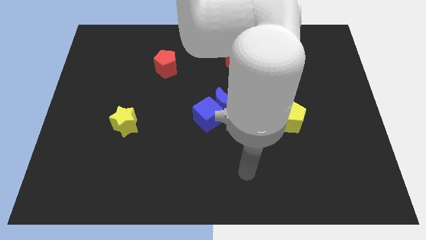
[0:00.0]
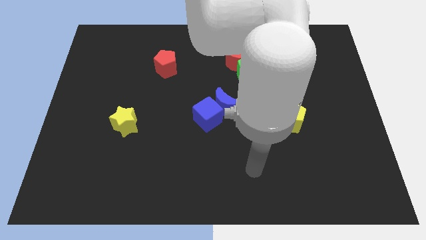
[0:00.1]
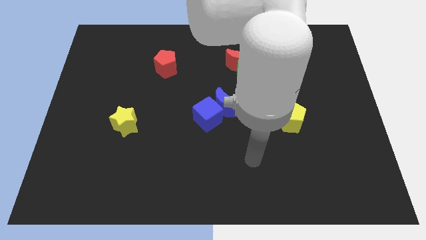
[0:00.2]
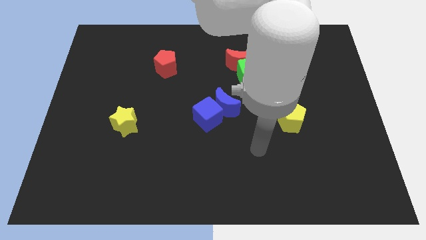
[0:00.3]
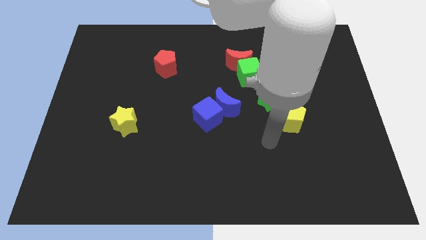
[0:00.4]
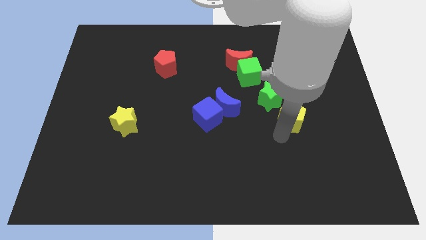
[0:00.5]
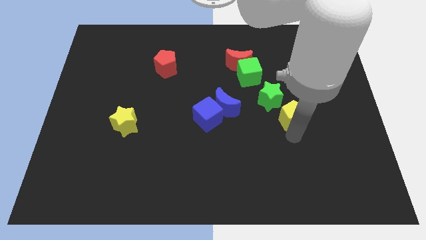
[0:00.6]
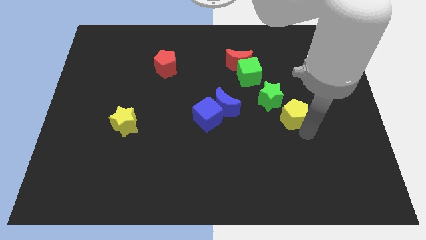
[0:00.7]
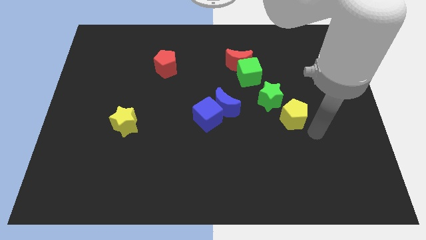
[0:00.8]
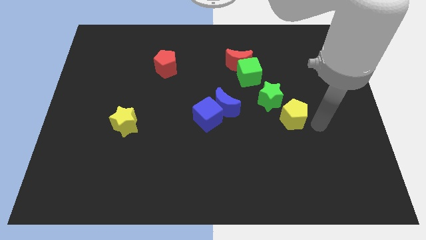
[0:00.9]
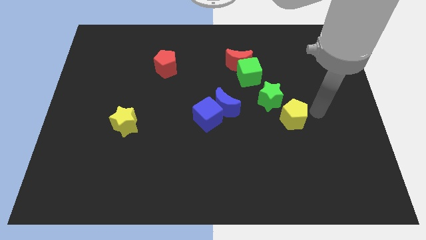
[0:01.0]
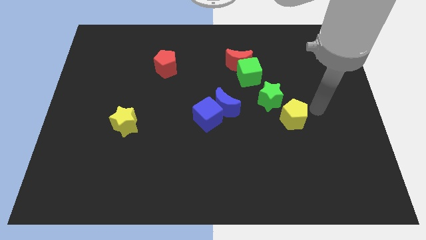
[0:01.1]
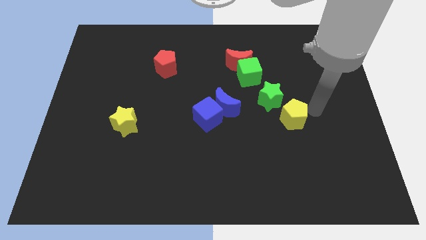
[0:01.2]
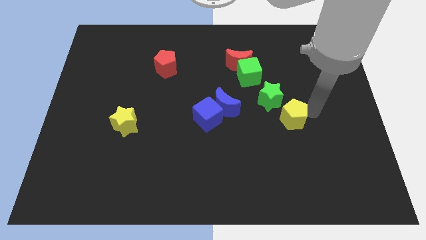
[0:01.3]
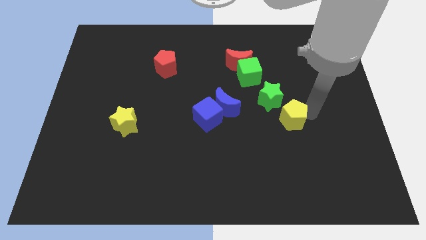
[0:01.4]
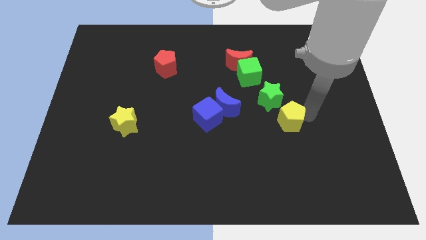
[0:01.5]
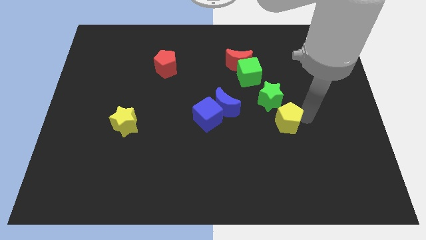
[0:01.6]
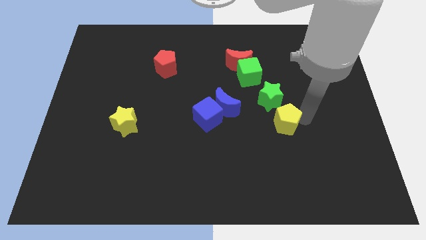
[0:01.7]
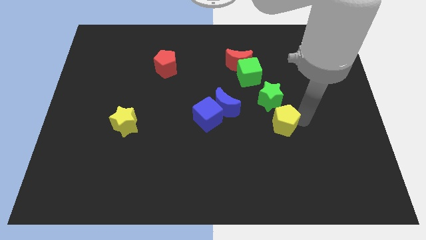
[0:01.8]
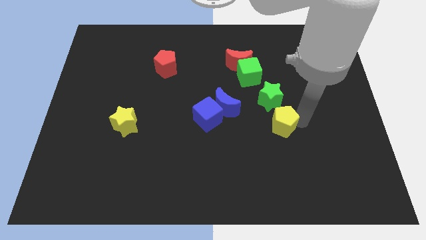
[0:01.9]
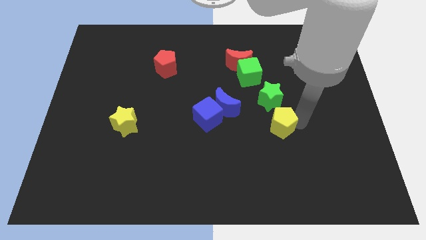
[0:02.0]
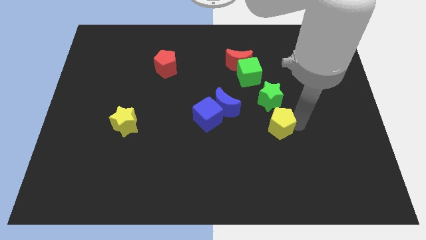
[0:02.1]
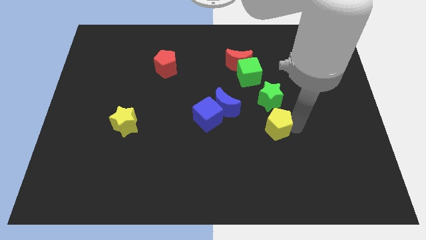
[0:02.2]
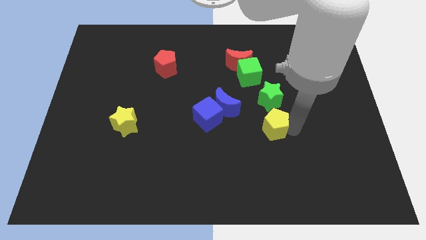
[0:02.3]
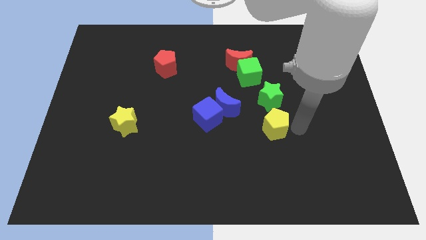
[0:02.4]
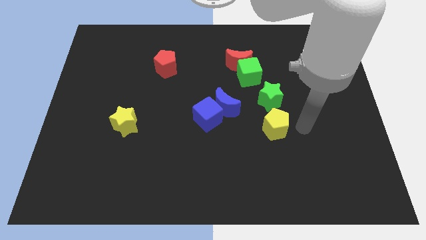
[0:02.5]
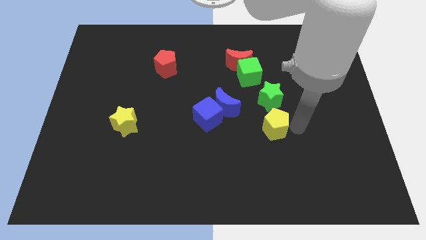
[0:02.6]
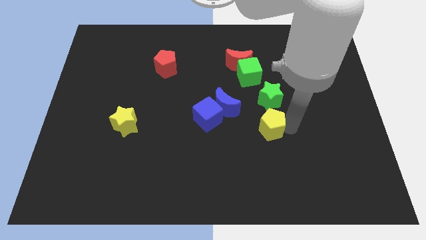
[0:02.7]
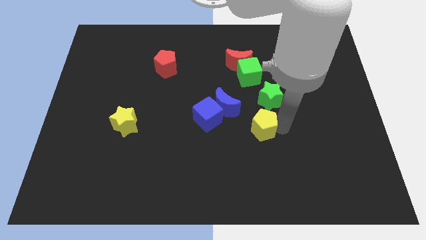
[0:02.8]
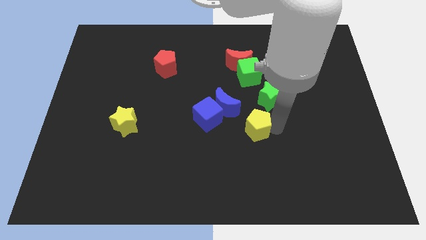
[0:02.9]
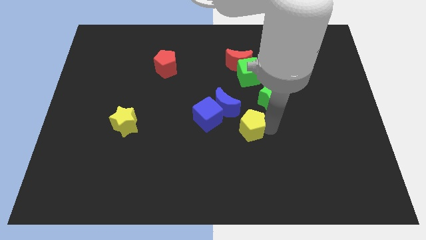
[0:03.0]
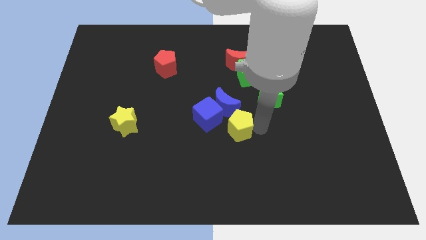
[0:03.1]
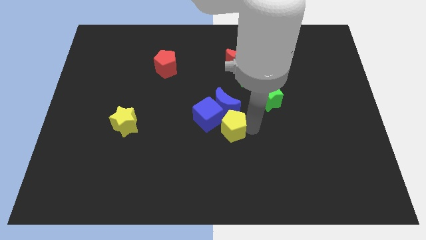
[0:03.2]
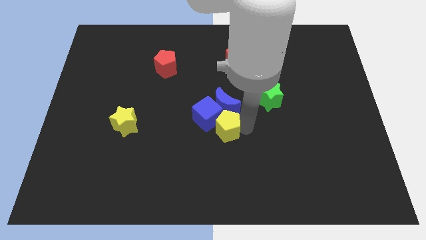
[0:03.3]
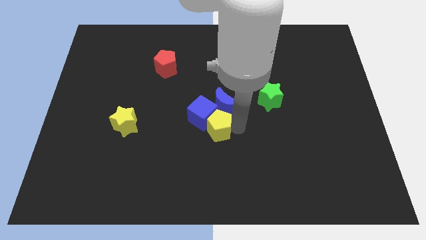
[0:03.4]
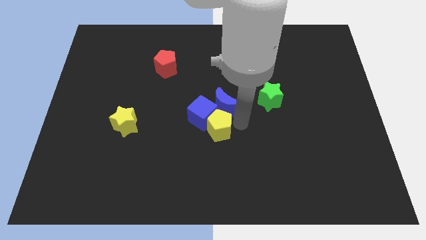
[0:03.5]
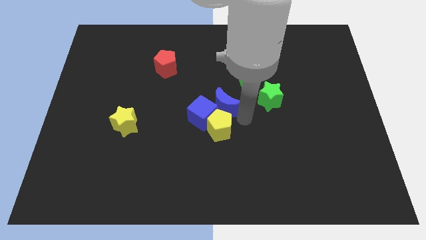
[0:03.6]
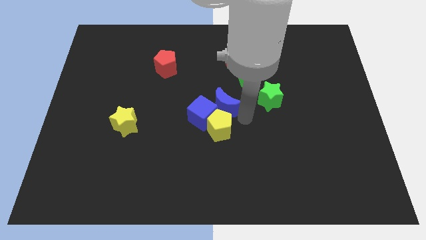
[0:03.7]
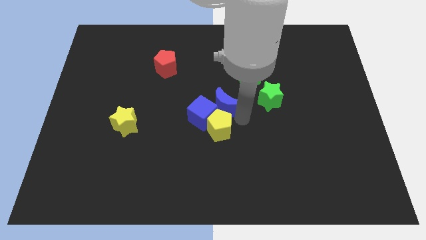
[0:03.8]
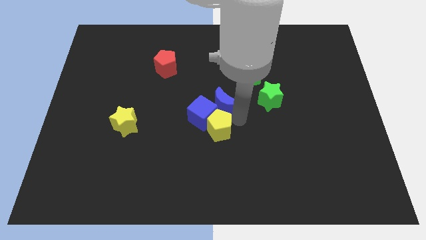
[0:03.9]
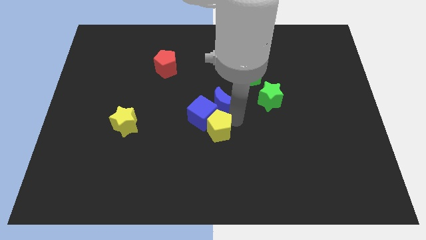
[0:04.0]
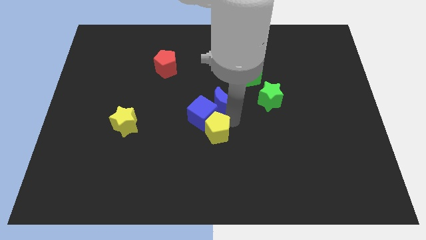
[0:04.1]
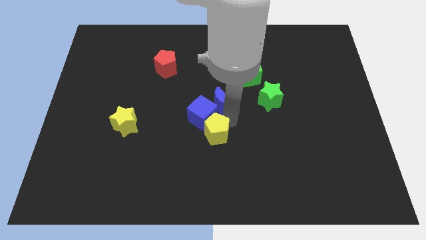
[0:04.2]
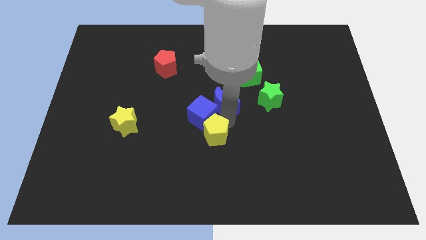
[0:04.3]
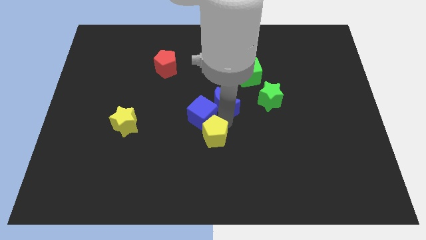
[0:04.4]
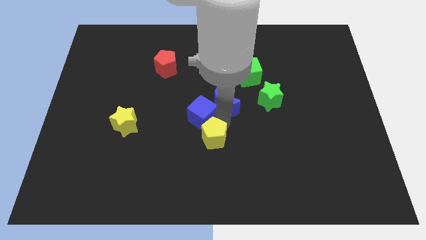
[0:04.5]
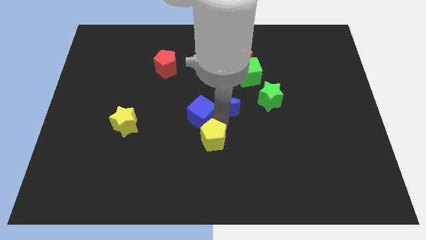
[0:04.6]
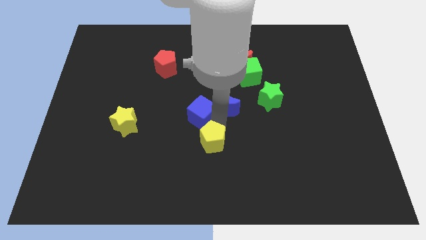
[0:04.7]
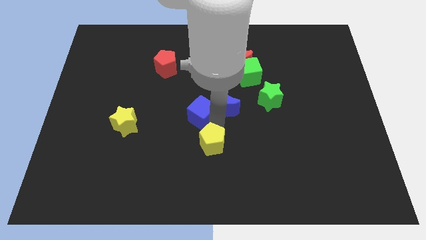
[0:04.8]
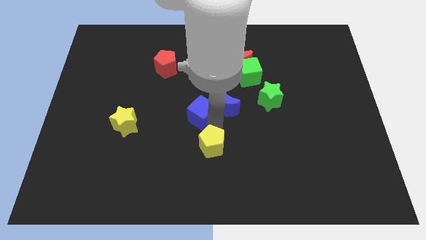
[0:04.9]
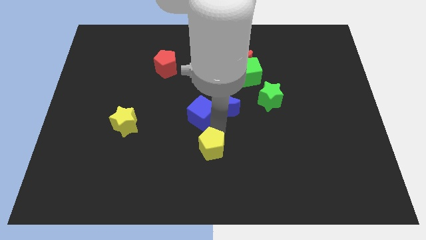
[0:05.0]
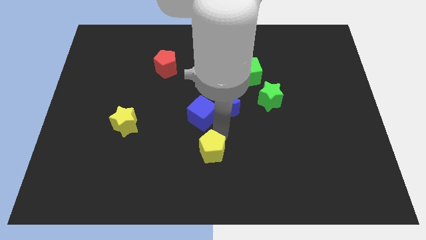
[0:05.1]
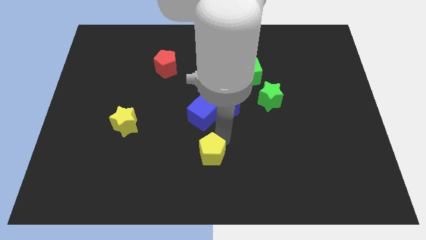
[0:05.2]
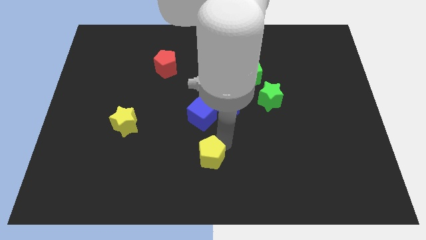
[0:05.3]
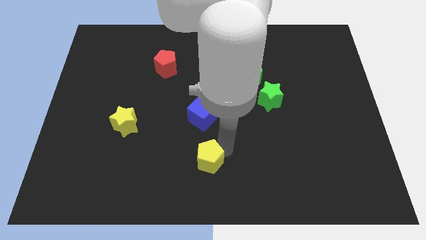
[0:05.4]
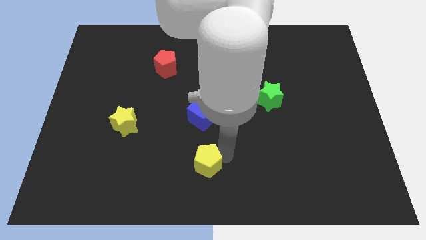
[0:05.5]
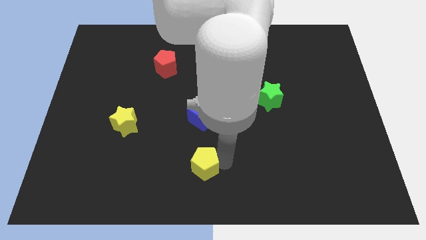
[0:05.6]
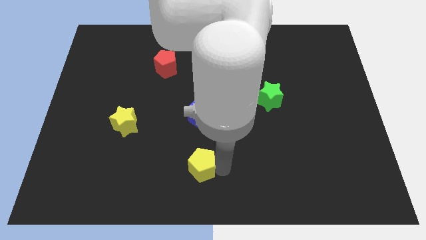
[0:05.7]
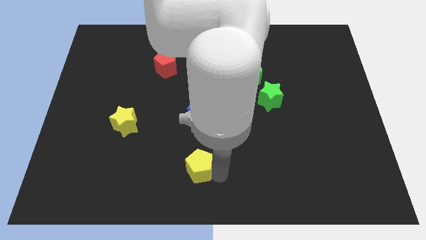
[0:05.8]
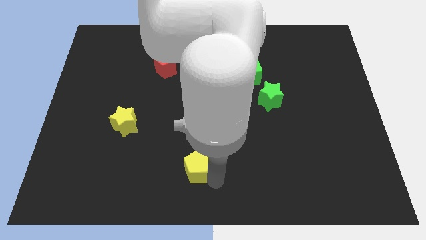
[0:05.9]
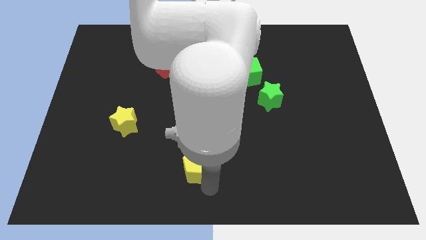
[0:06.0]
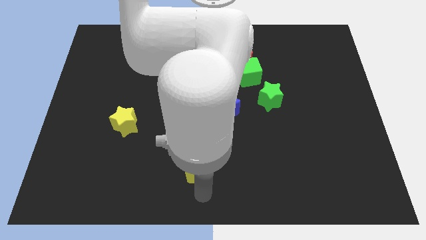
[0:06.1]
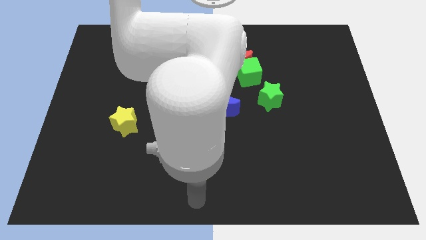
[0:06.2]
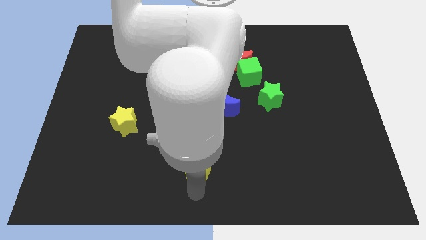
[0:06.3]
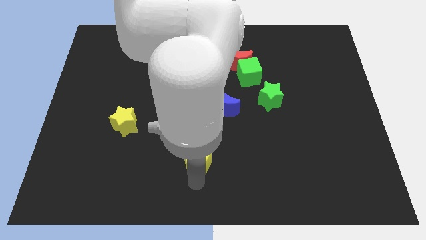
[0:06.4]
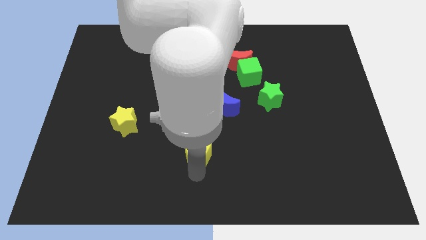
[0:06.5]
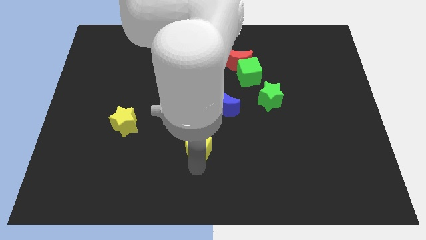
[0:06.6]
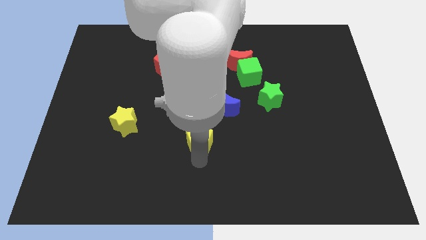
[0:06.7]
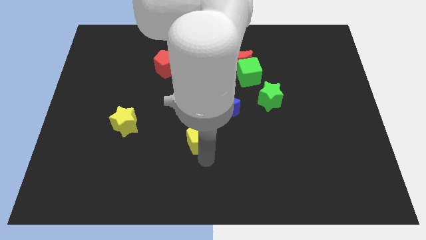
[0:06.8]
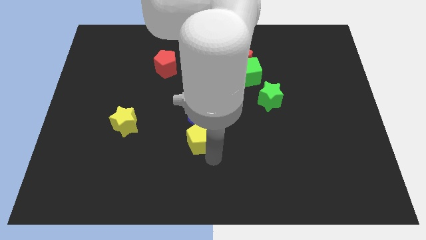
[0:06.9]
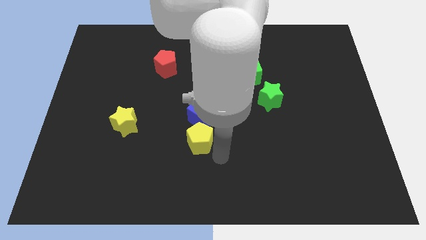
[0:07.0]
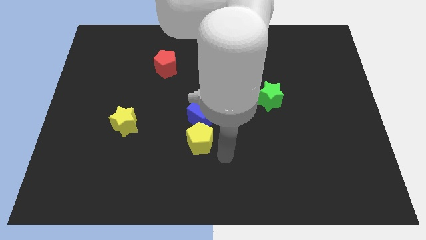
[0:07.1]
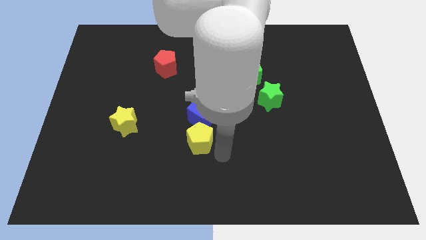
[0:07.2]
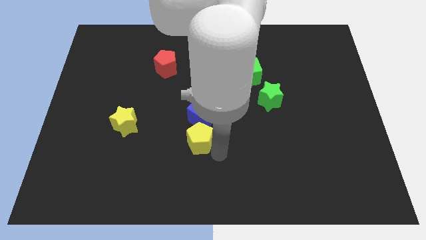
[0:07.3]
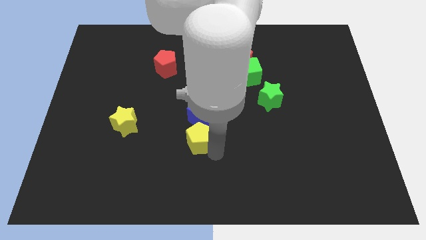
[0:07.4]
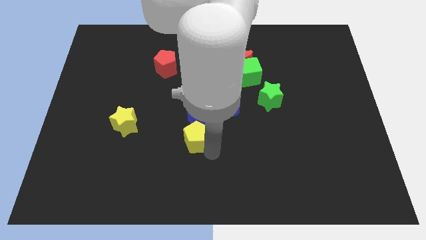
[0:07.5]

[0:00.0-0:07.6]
push the yellow pentagon left

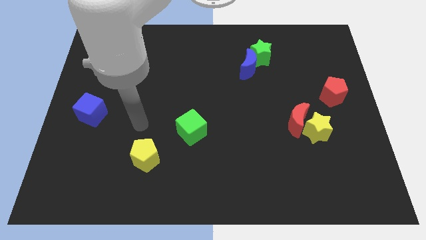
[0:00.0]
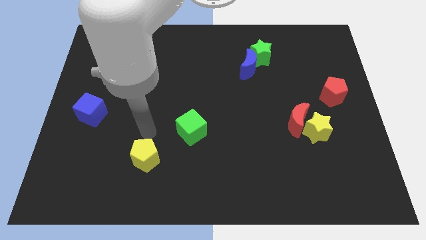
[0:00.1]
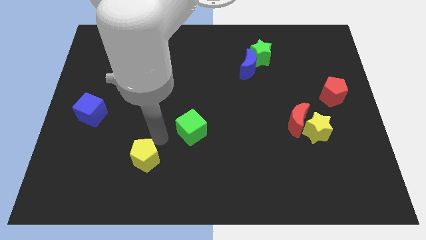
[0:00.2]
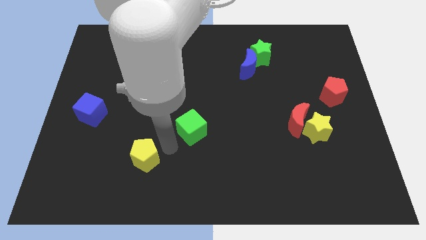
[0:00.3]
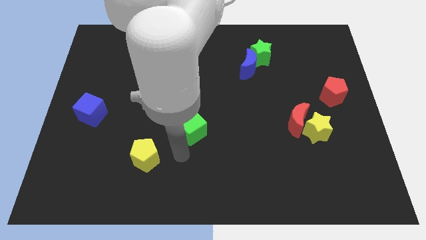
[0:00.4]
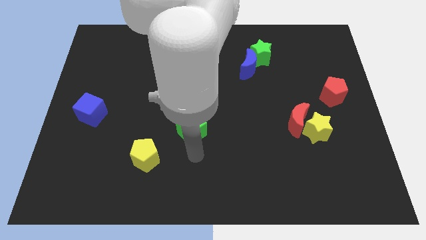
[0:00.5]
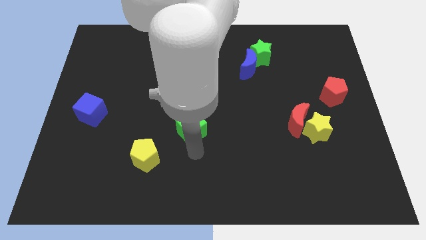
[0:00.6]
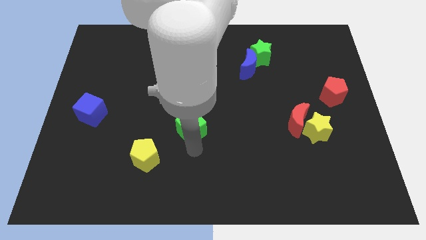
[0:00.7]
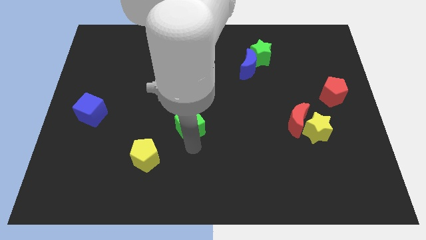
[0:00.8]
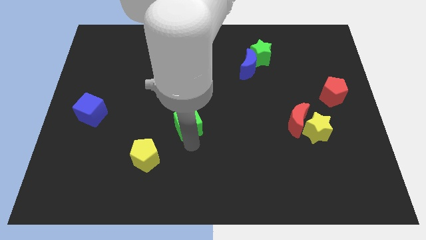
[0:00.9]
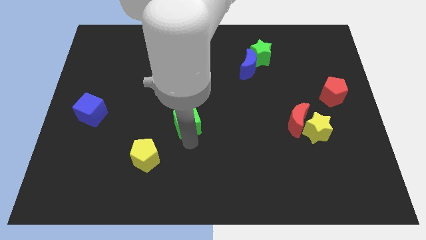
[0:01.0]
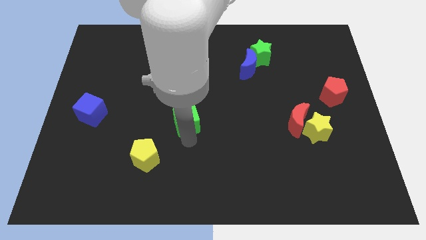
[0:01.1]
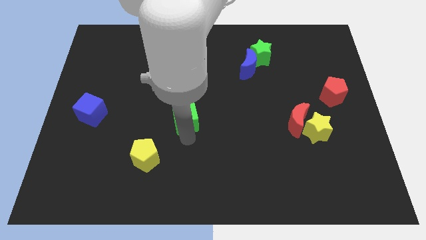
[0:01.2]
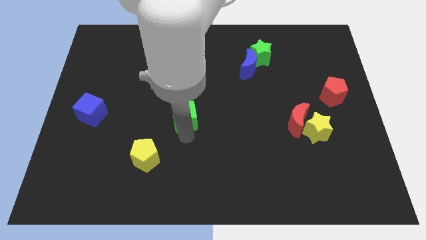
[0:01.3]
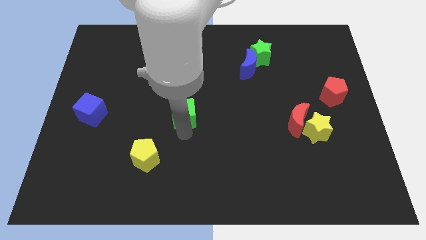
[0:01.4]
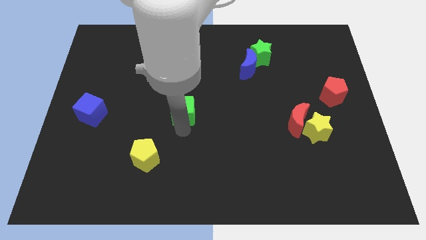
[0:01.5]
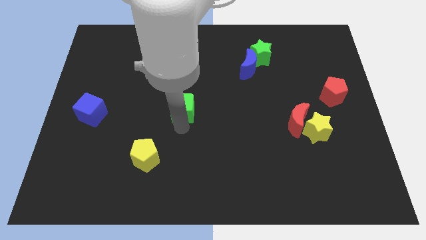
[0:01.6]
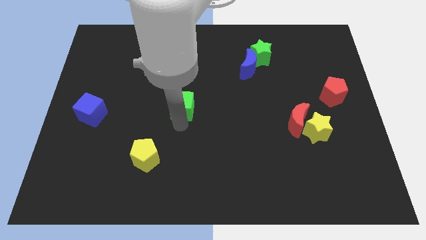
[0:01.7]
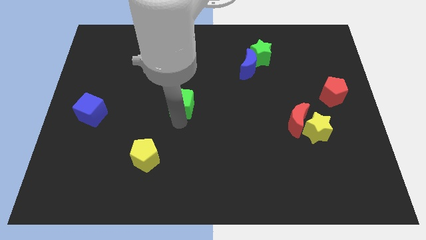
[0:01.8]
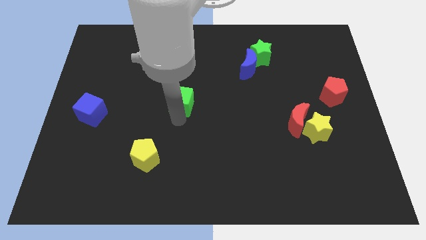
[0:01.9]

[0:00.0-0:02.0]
move the green cube slightly upwards
